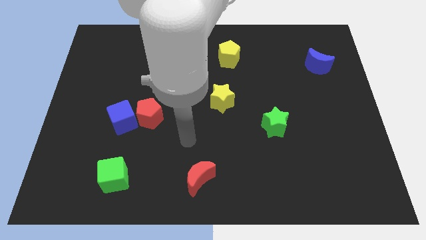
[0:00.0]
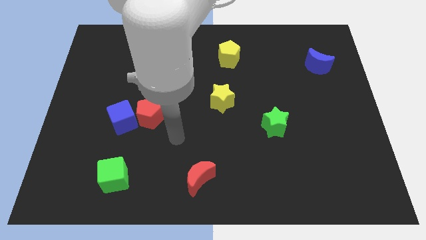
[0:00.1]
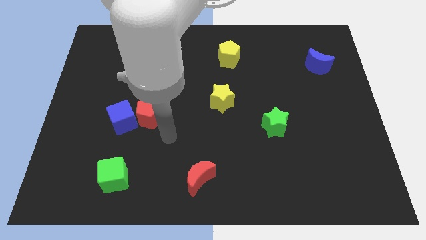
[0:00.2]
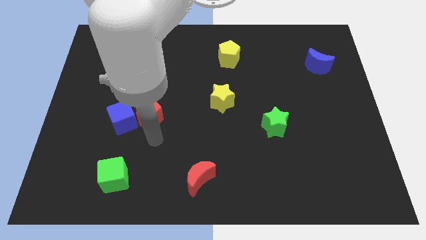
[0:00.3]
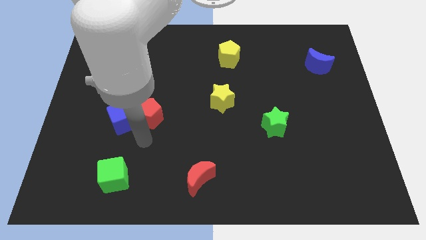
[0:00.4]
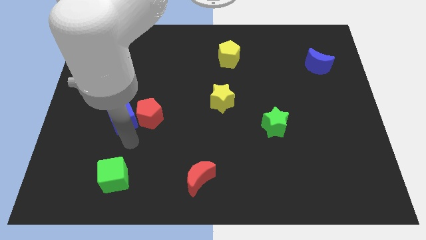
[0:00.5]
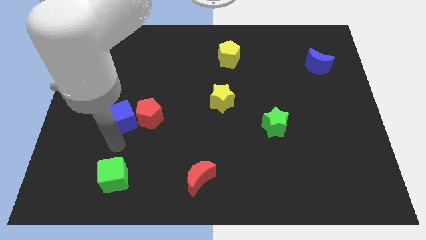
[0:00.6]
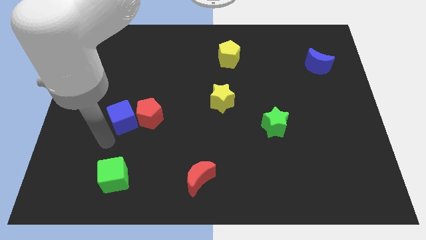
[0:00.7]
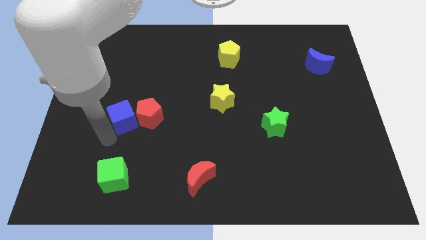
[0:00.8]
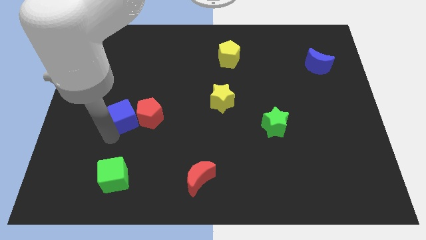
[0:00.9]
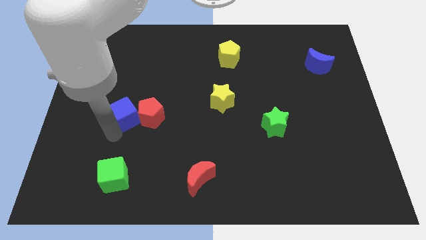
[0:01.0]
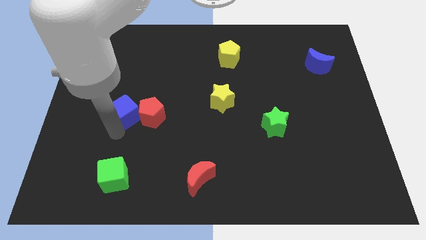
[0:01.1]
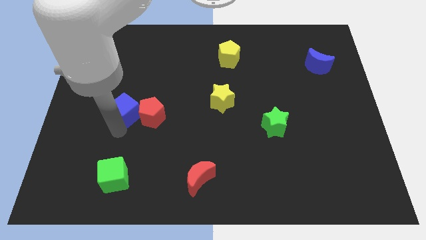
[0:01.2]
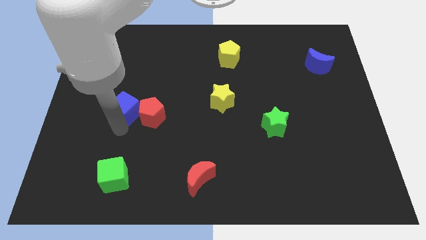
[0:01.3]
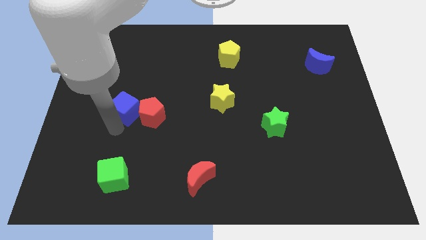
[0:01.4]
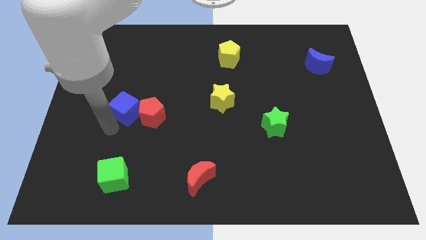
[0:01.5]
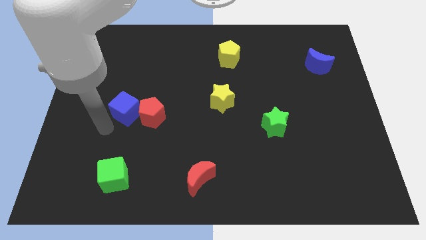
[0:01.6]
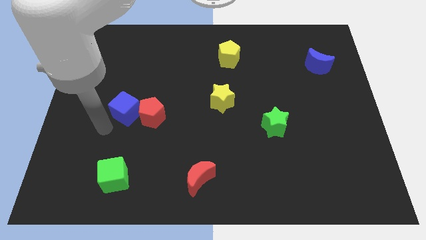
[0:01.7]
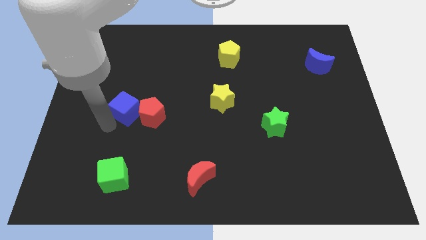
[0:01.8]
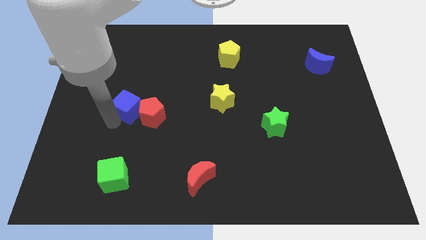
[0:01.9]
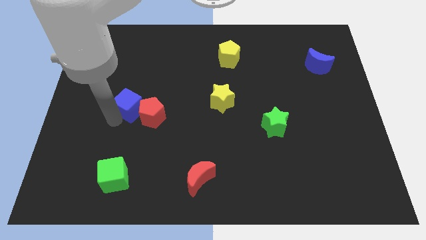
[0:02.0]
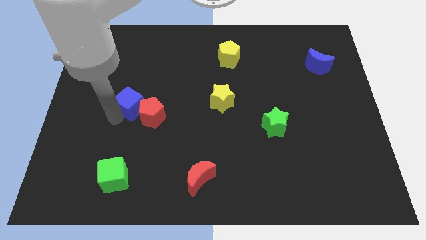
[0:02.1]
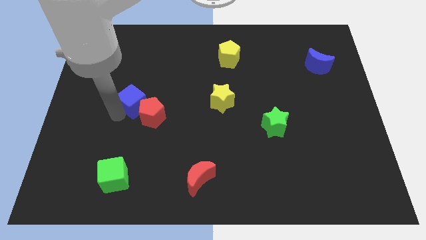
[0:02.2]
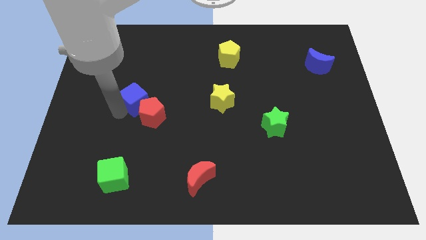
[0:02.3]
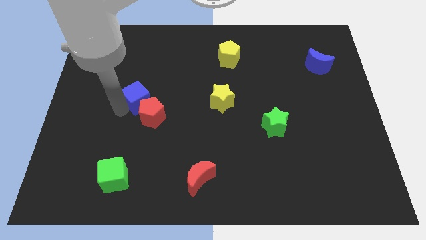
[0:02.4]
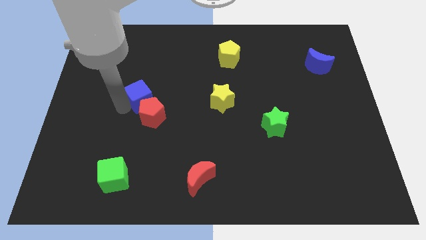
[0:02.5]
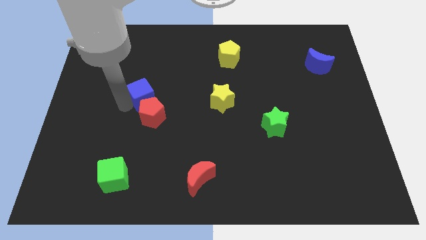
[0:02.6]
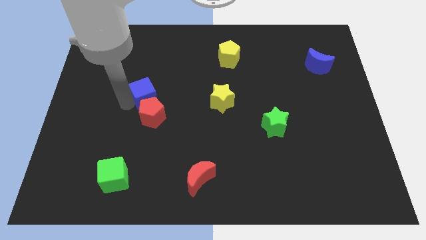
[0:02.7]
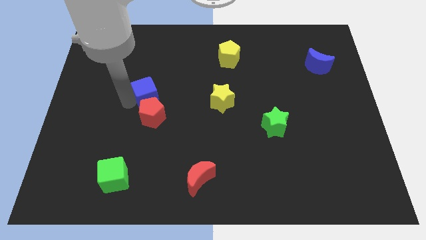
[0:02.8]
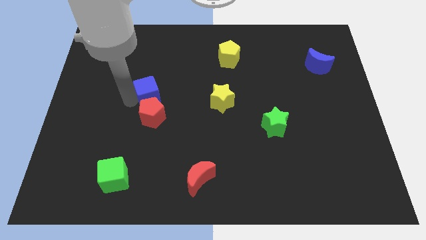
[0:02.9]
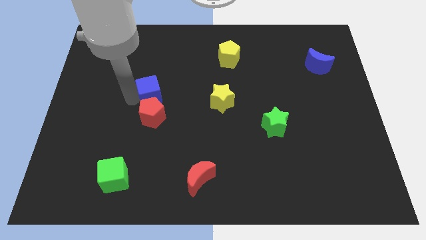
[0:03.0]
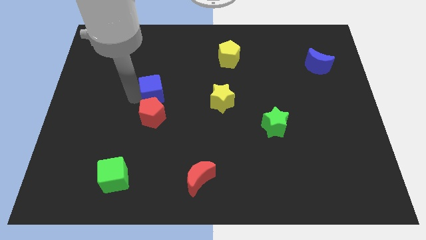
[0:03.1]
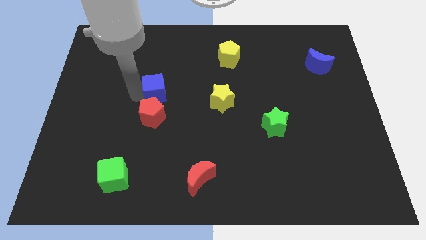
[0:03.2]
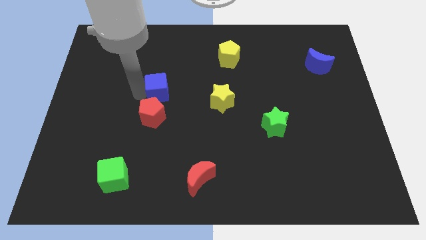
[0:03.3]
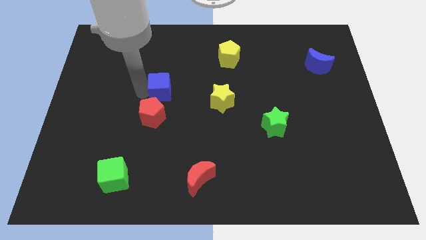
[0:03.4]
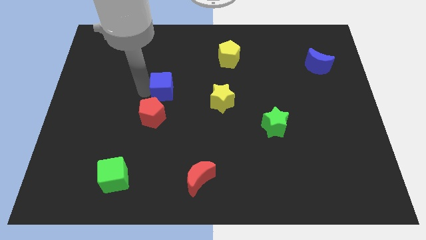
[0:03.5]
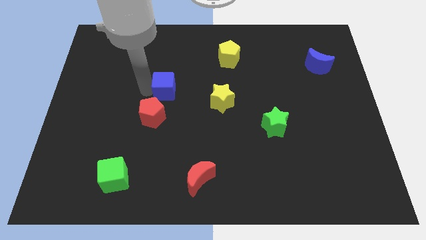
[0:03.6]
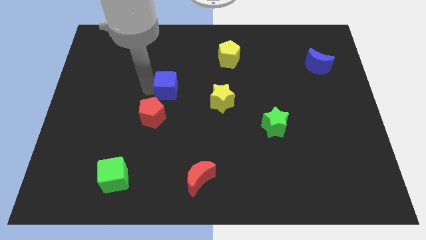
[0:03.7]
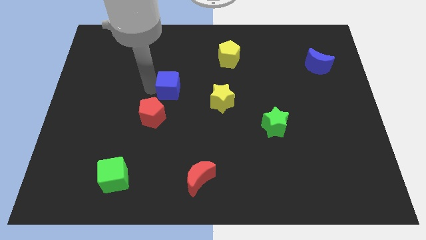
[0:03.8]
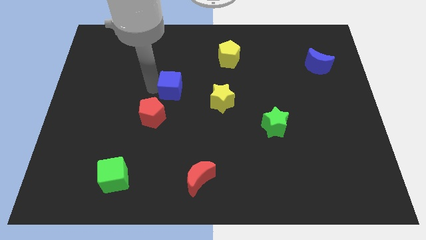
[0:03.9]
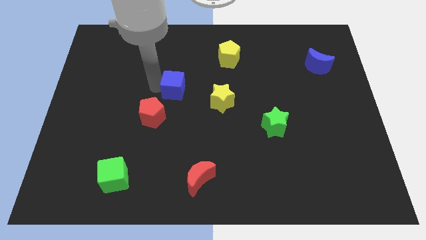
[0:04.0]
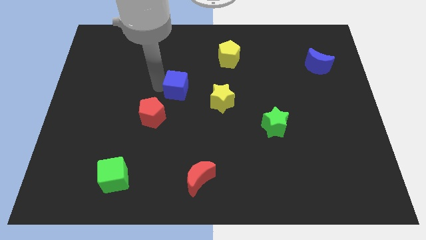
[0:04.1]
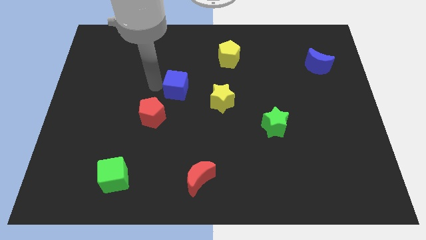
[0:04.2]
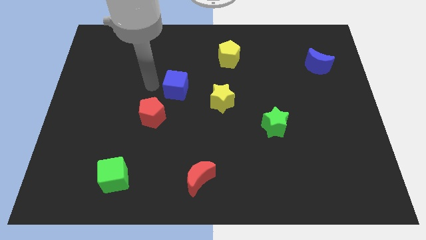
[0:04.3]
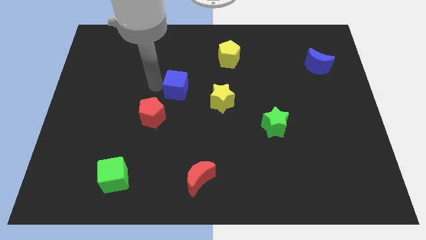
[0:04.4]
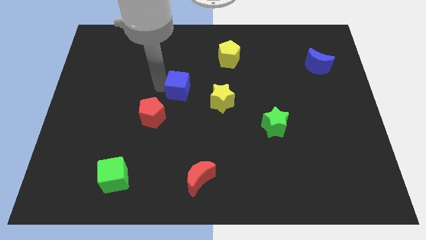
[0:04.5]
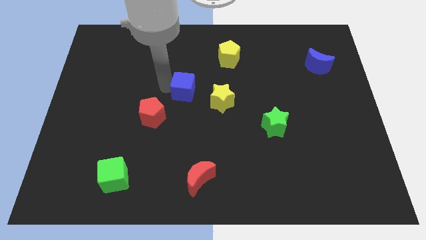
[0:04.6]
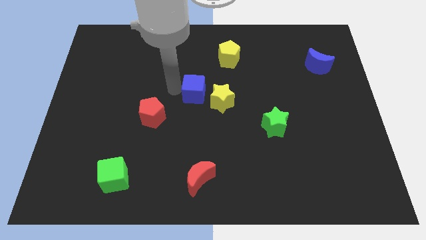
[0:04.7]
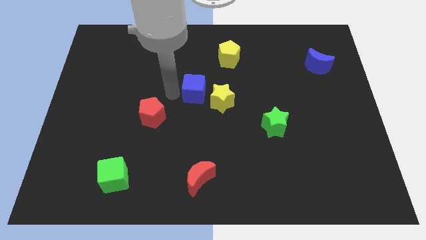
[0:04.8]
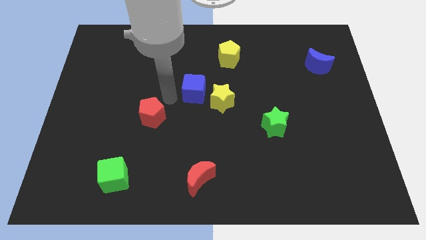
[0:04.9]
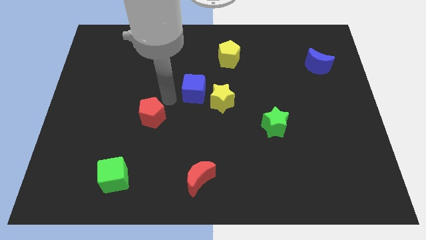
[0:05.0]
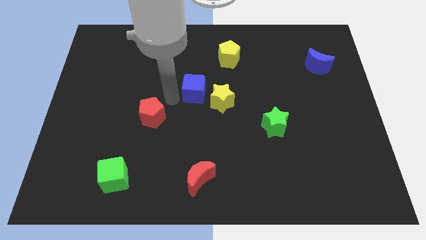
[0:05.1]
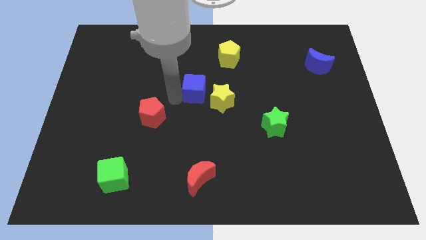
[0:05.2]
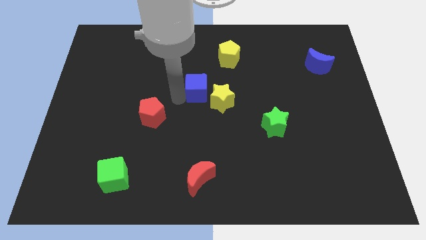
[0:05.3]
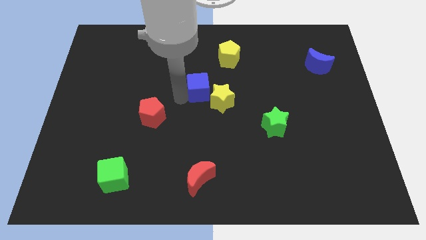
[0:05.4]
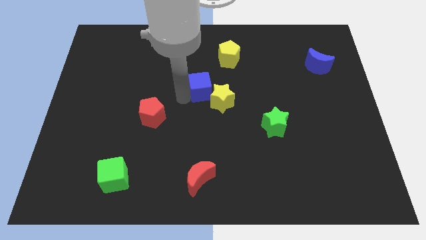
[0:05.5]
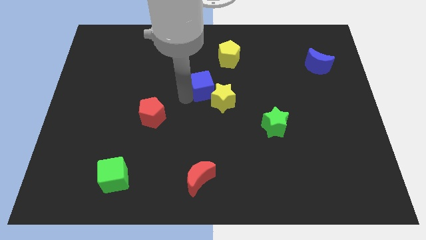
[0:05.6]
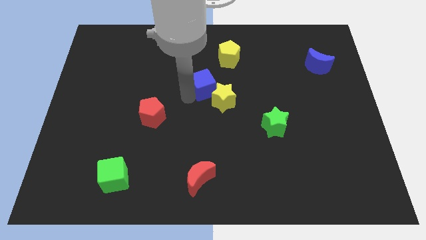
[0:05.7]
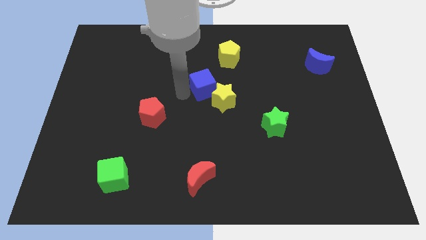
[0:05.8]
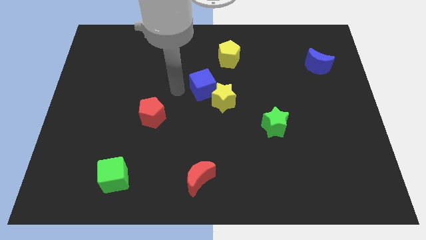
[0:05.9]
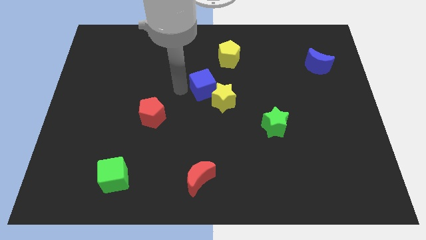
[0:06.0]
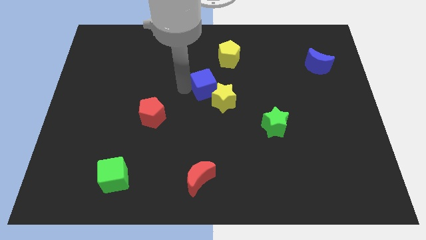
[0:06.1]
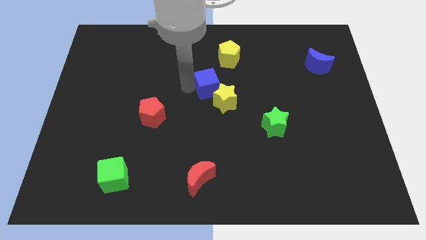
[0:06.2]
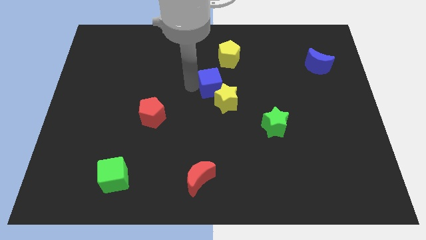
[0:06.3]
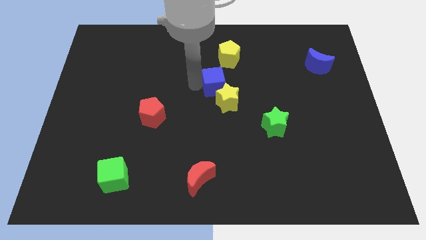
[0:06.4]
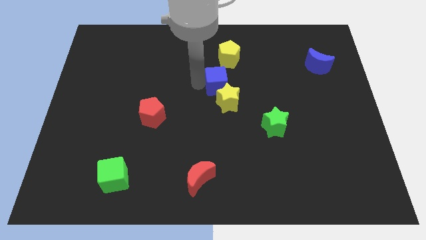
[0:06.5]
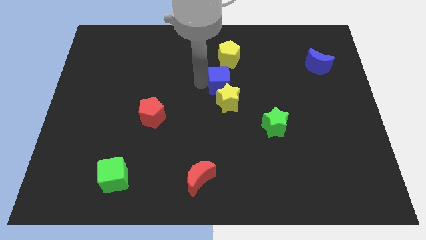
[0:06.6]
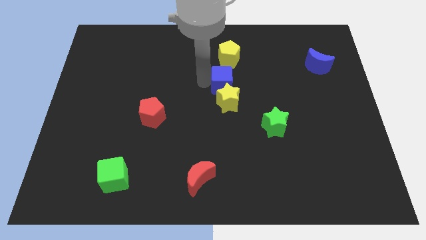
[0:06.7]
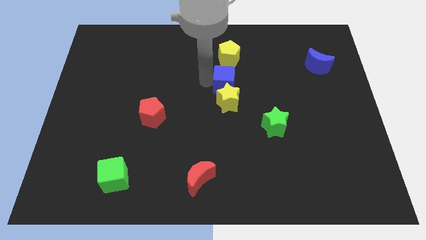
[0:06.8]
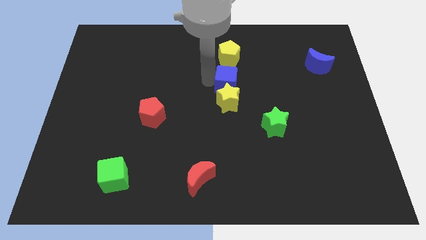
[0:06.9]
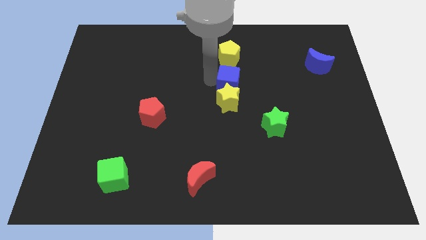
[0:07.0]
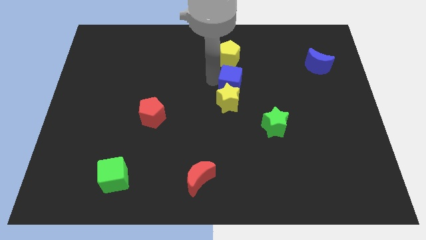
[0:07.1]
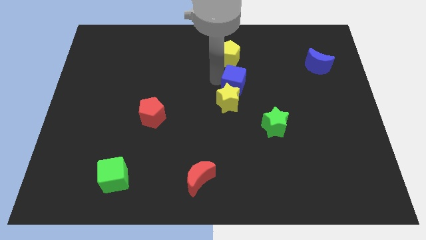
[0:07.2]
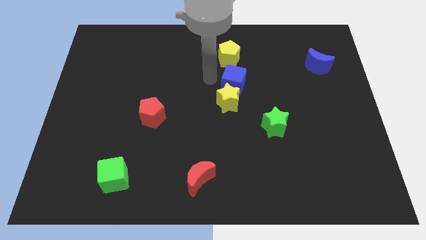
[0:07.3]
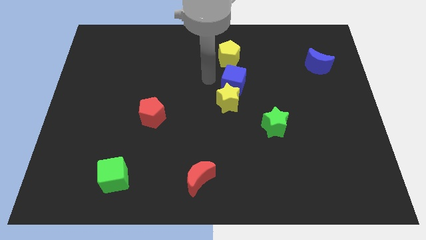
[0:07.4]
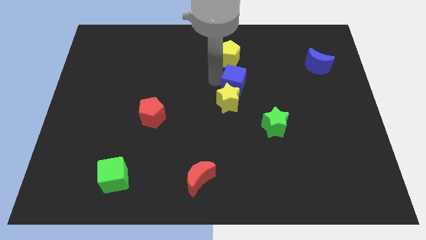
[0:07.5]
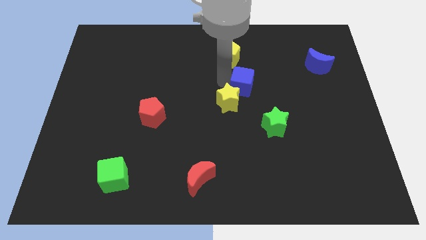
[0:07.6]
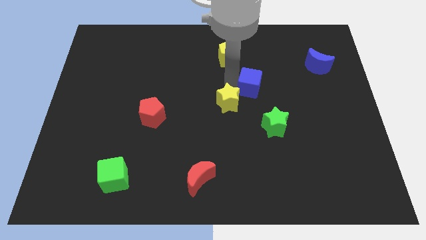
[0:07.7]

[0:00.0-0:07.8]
push the blue cube above the green star
